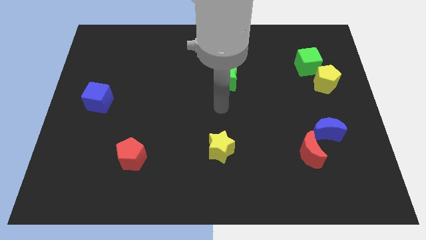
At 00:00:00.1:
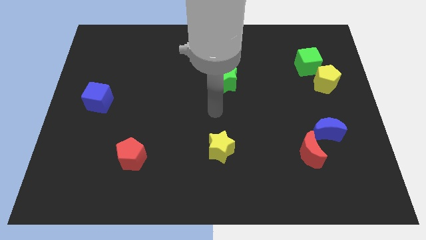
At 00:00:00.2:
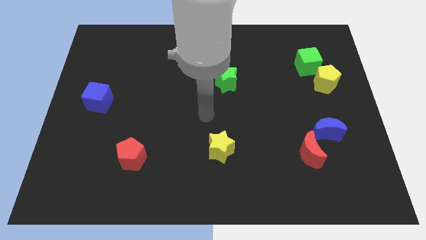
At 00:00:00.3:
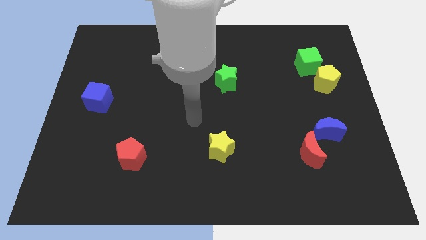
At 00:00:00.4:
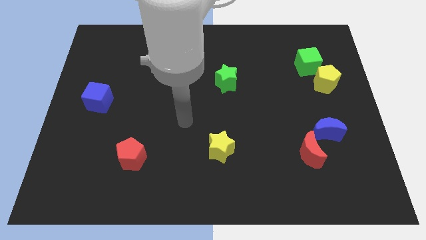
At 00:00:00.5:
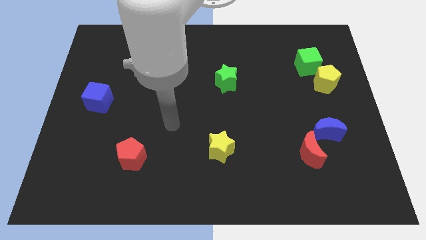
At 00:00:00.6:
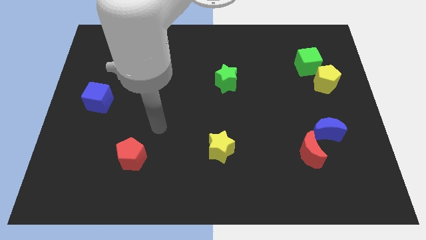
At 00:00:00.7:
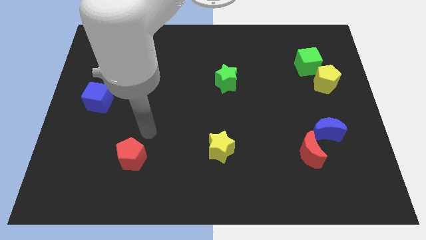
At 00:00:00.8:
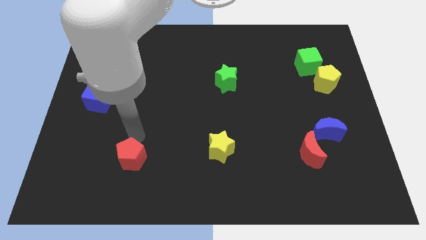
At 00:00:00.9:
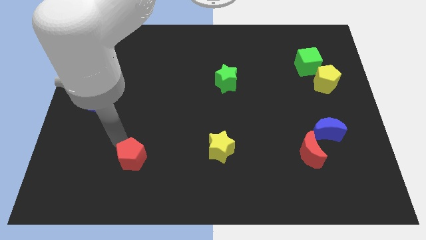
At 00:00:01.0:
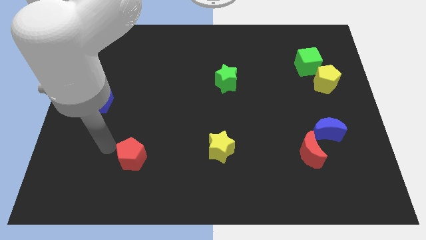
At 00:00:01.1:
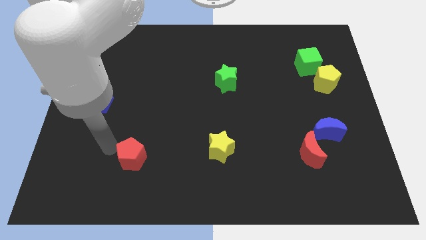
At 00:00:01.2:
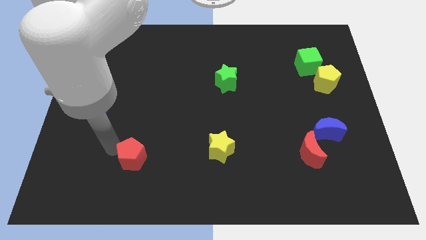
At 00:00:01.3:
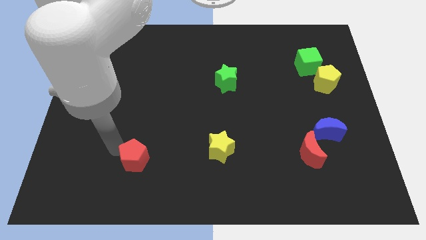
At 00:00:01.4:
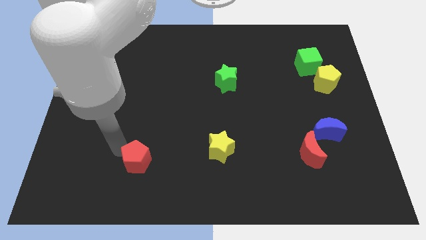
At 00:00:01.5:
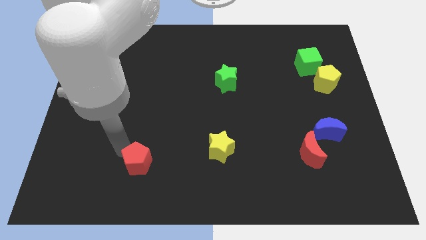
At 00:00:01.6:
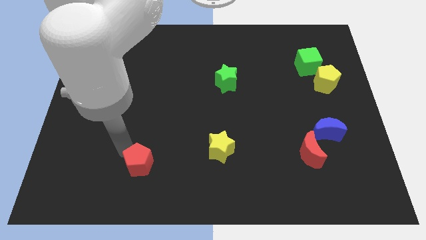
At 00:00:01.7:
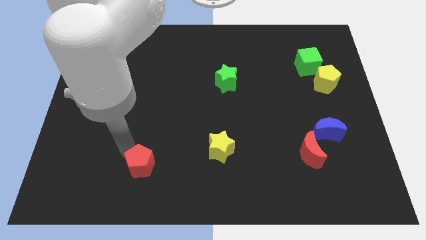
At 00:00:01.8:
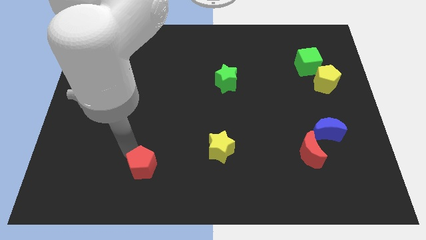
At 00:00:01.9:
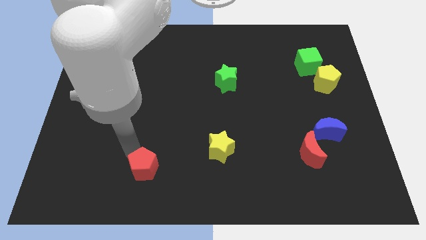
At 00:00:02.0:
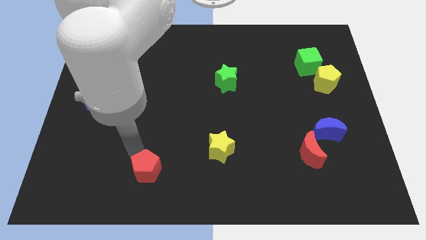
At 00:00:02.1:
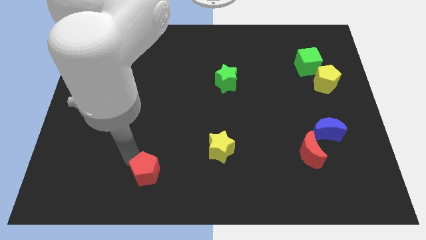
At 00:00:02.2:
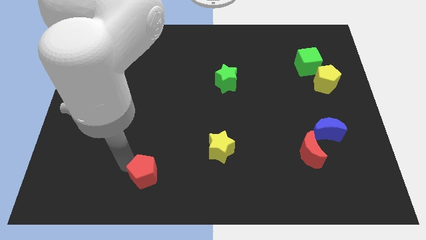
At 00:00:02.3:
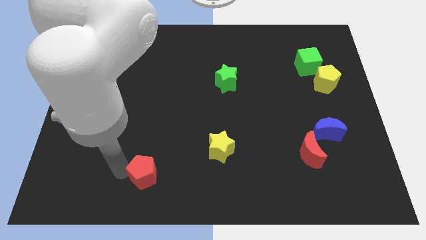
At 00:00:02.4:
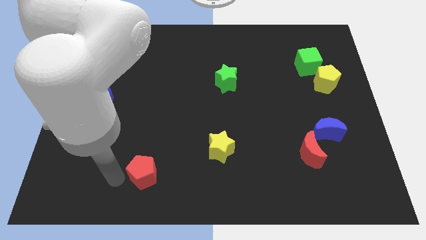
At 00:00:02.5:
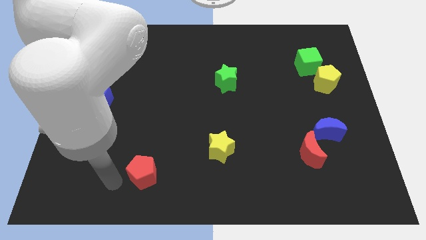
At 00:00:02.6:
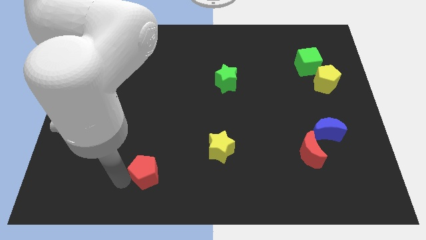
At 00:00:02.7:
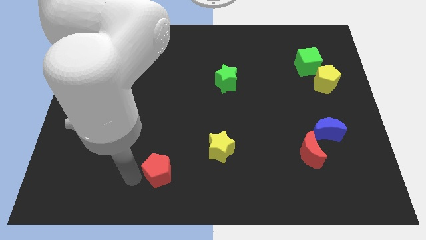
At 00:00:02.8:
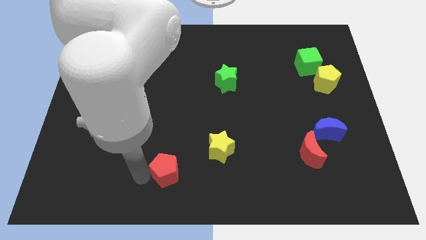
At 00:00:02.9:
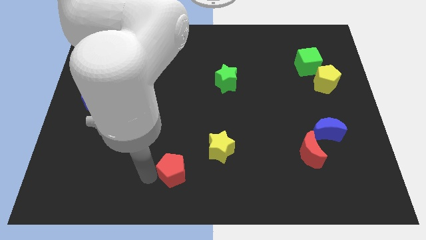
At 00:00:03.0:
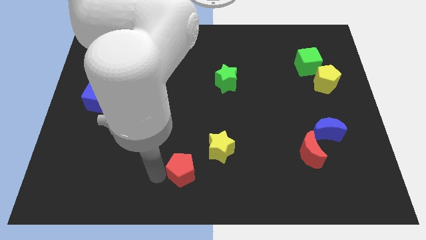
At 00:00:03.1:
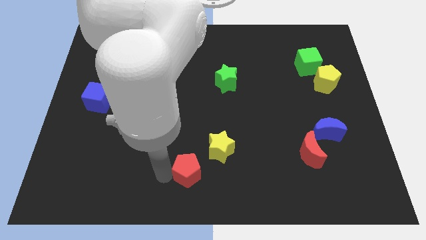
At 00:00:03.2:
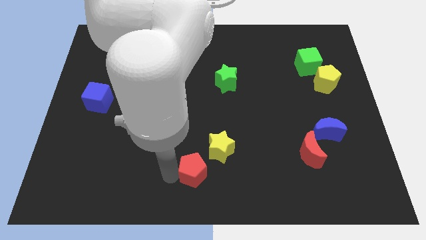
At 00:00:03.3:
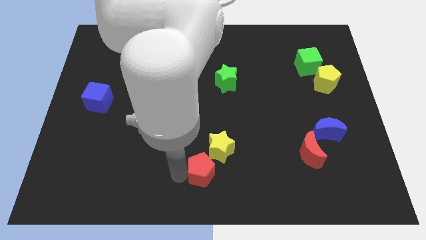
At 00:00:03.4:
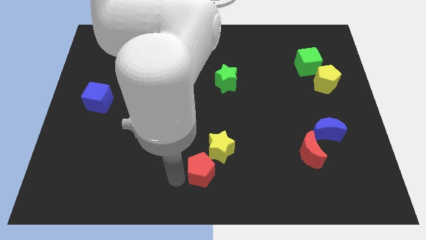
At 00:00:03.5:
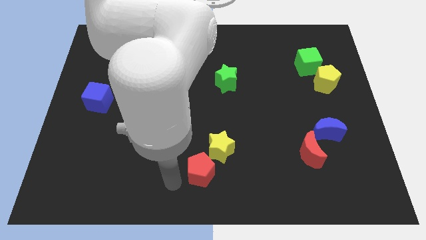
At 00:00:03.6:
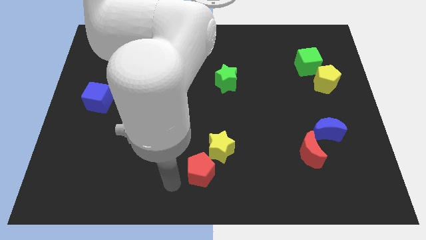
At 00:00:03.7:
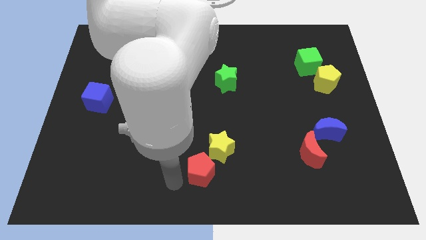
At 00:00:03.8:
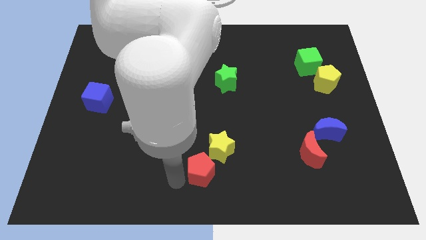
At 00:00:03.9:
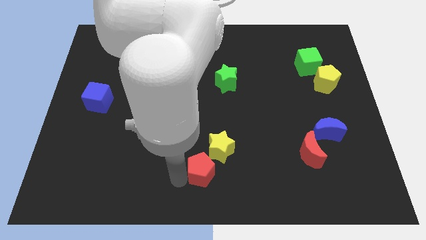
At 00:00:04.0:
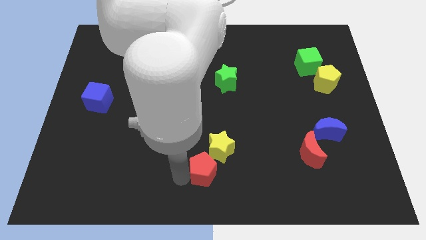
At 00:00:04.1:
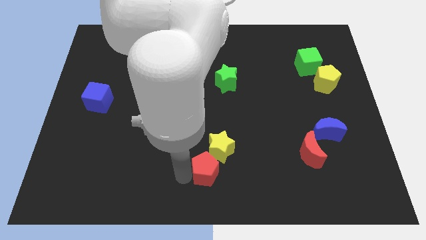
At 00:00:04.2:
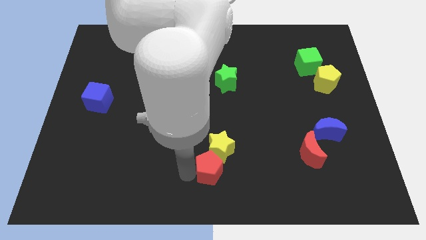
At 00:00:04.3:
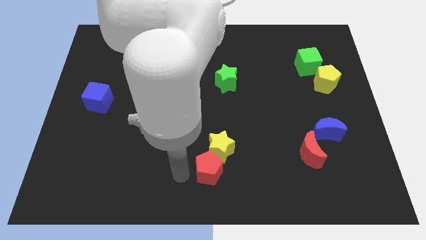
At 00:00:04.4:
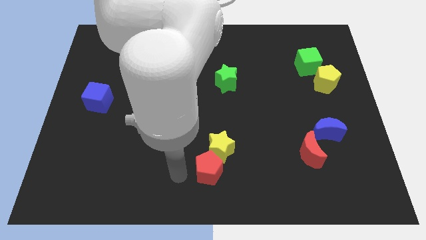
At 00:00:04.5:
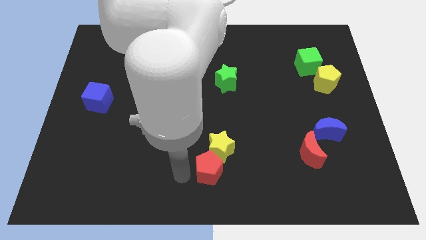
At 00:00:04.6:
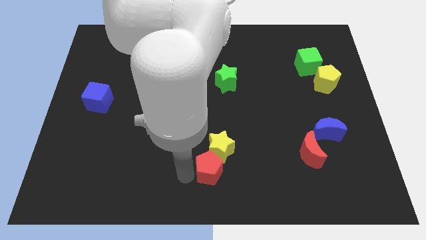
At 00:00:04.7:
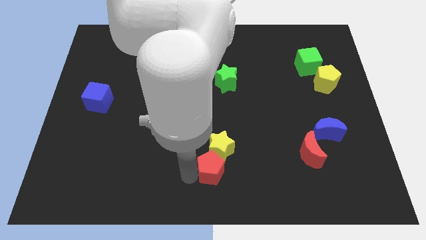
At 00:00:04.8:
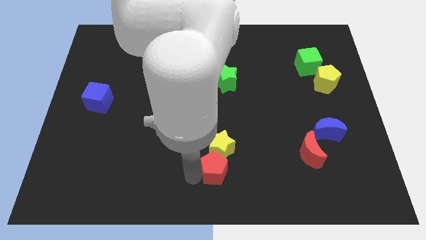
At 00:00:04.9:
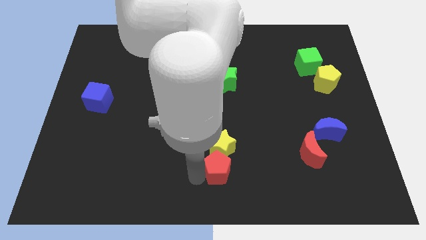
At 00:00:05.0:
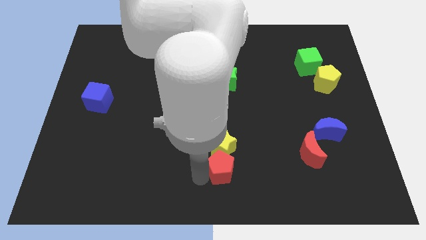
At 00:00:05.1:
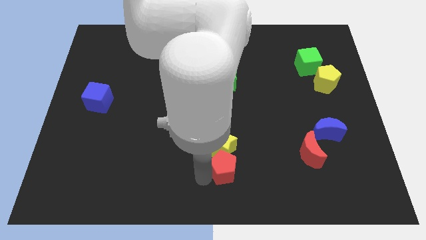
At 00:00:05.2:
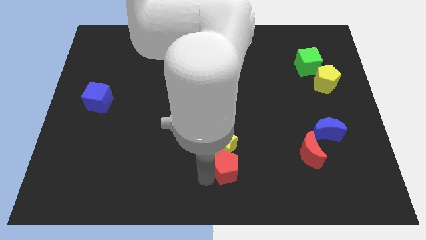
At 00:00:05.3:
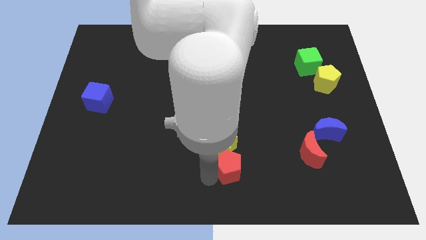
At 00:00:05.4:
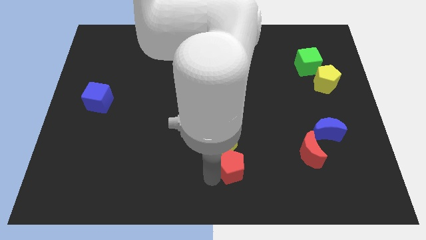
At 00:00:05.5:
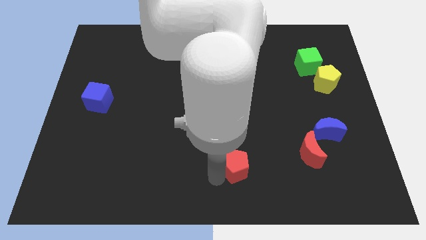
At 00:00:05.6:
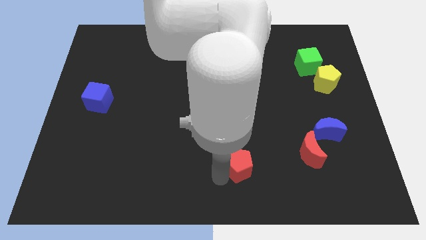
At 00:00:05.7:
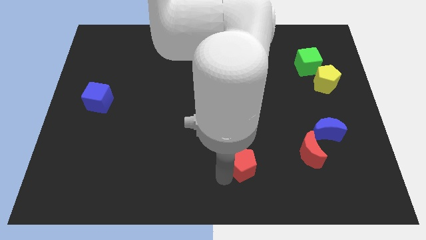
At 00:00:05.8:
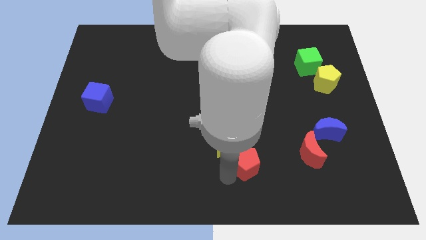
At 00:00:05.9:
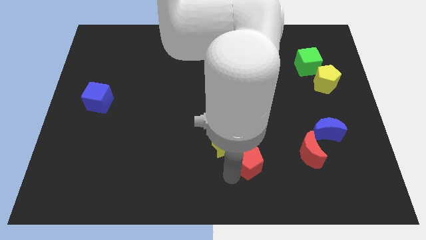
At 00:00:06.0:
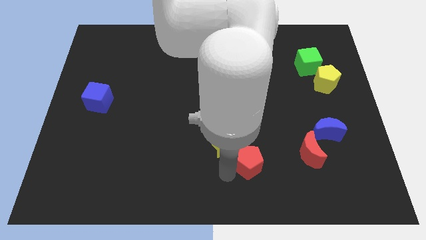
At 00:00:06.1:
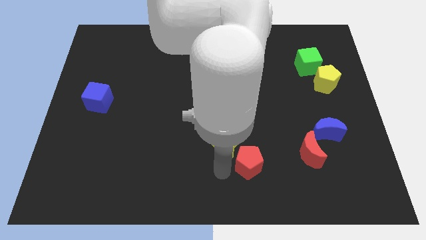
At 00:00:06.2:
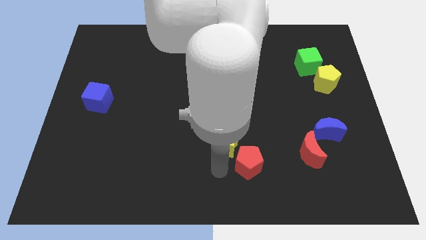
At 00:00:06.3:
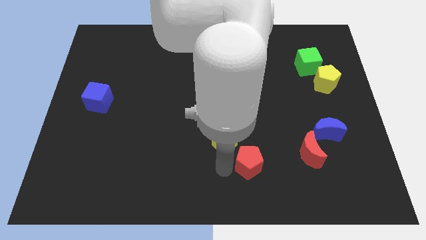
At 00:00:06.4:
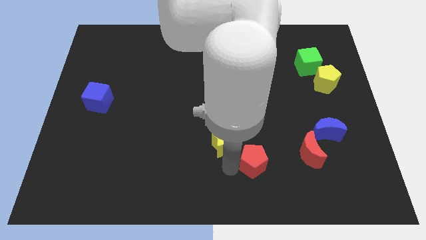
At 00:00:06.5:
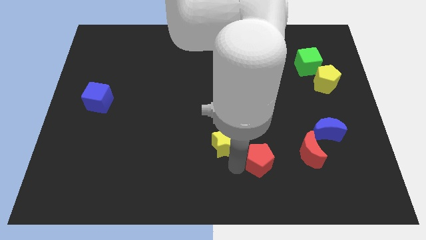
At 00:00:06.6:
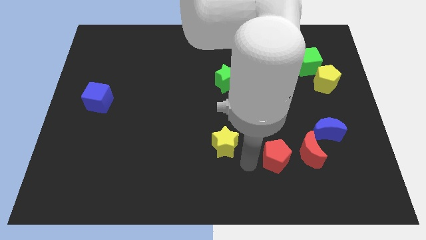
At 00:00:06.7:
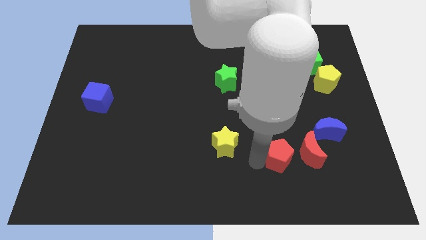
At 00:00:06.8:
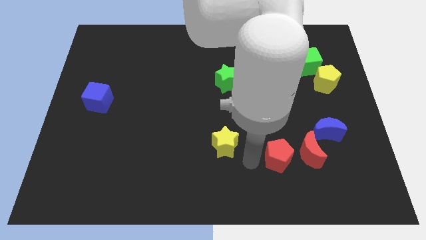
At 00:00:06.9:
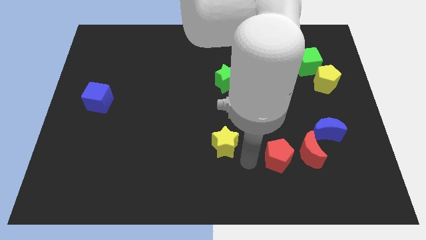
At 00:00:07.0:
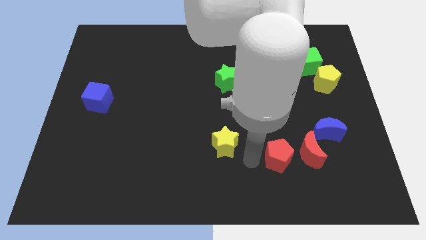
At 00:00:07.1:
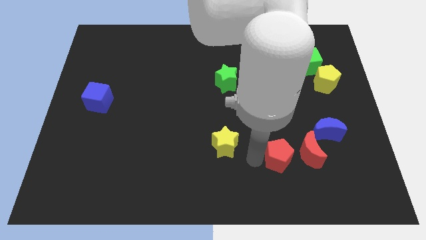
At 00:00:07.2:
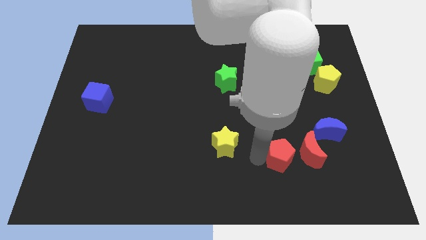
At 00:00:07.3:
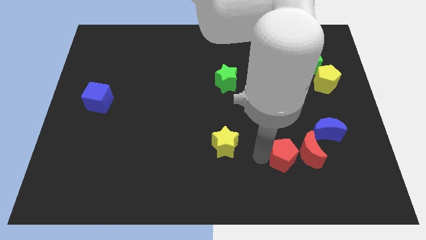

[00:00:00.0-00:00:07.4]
move the red pentagon close to the red moon
